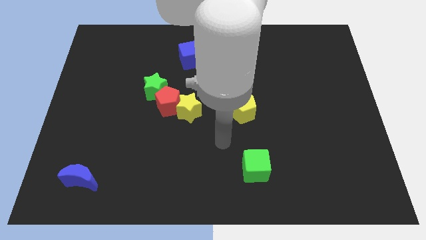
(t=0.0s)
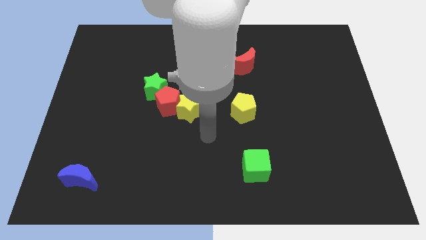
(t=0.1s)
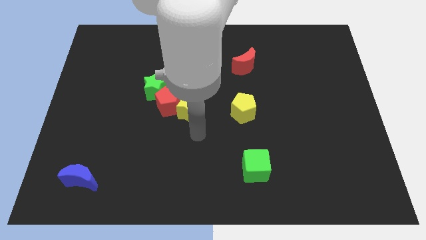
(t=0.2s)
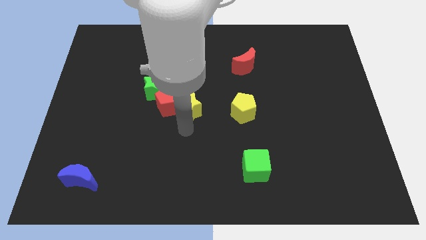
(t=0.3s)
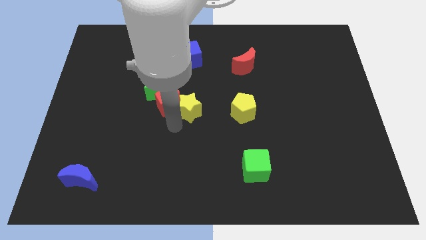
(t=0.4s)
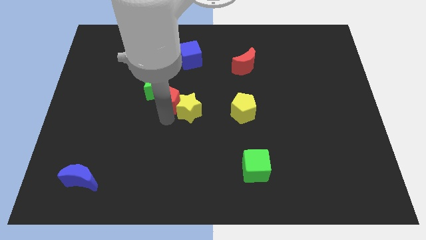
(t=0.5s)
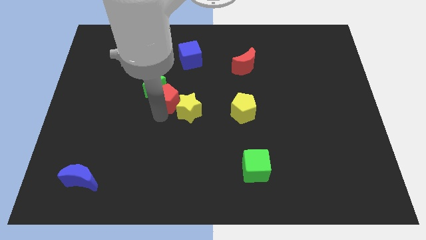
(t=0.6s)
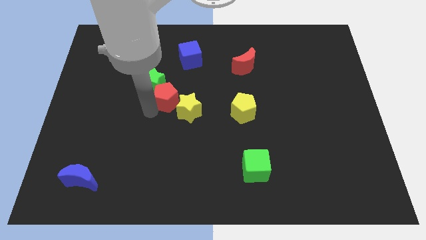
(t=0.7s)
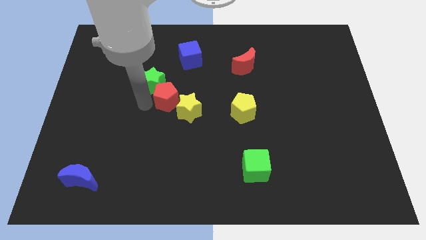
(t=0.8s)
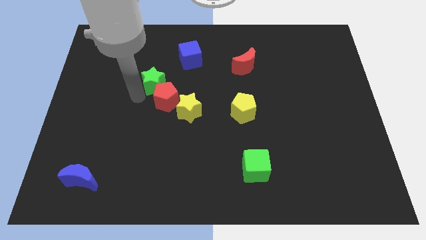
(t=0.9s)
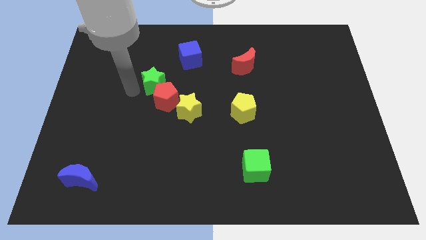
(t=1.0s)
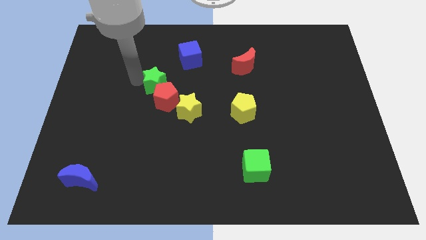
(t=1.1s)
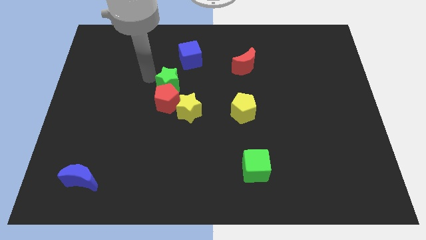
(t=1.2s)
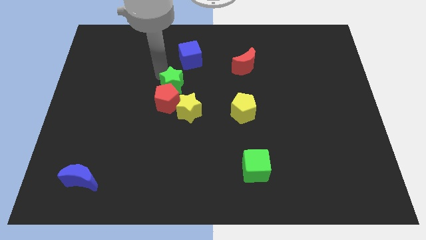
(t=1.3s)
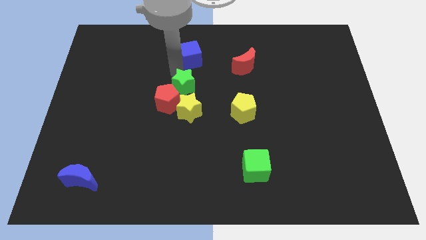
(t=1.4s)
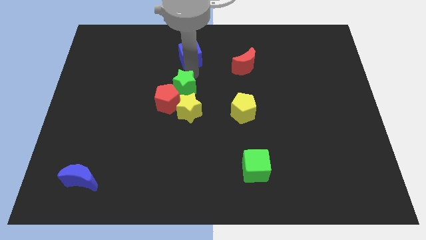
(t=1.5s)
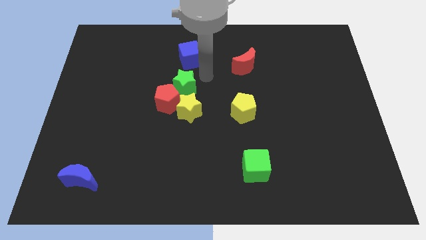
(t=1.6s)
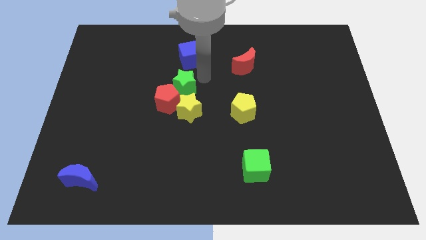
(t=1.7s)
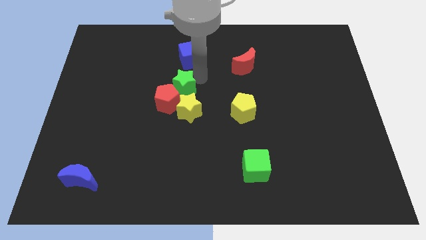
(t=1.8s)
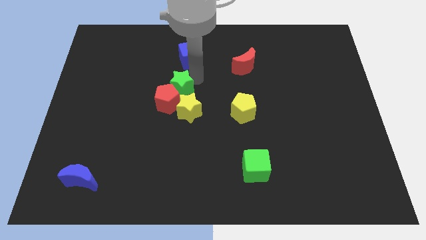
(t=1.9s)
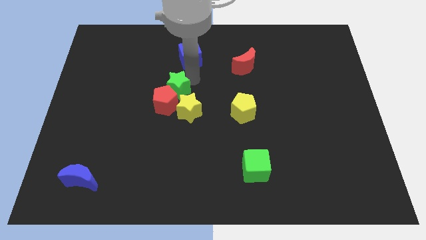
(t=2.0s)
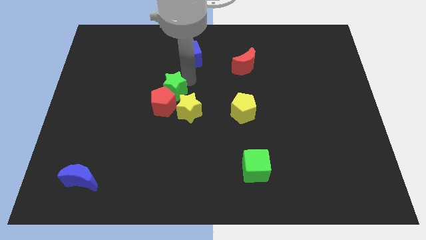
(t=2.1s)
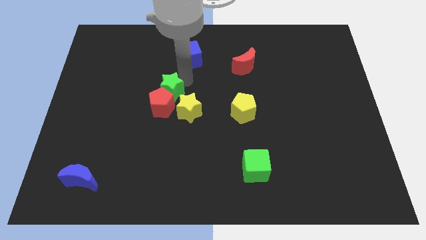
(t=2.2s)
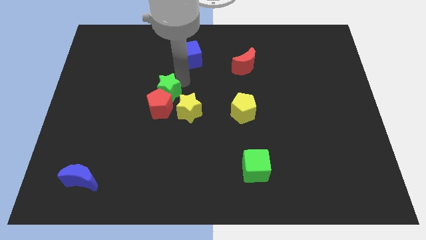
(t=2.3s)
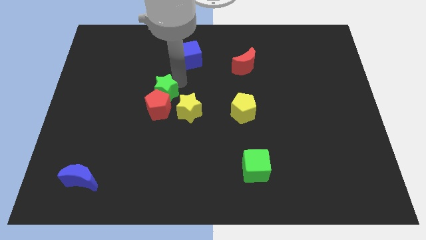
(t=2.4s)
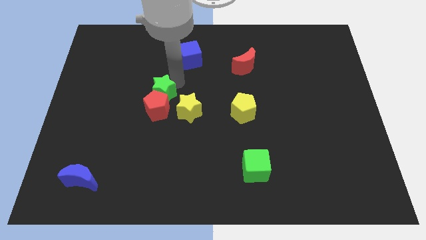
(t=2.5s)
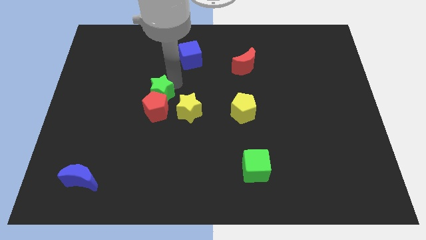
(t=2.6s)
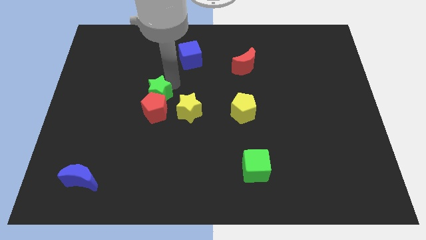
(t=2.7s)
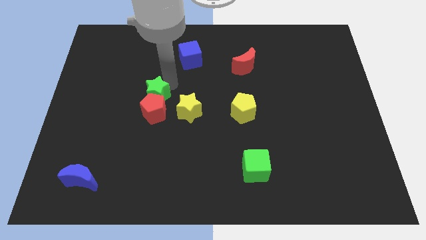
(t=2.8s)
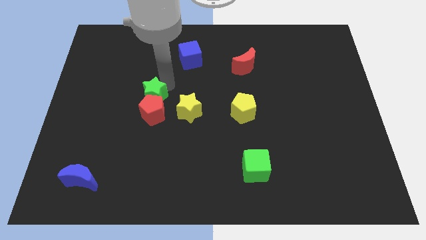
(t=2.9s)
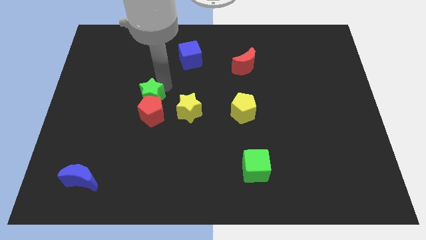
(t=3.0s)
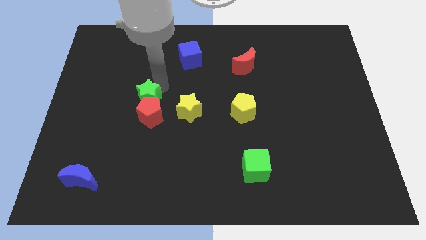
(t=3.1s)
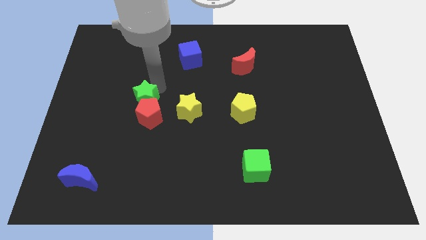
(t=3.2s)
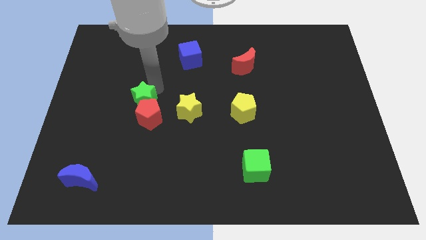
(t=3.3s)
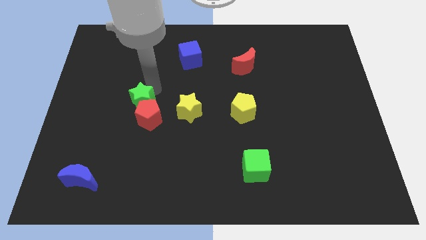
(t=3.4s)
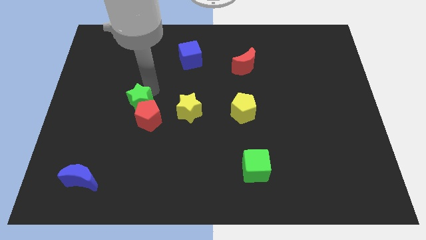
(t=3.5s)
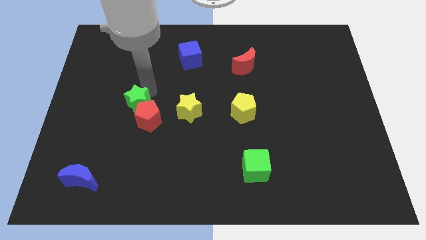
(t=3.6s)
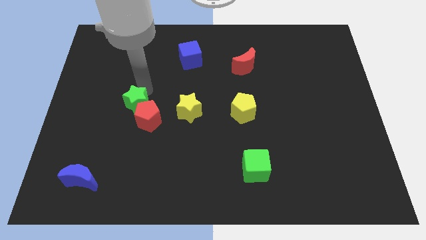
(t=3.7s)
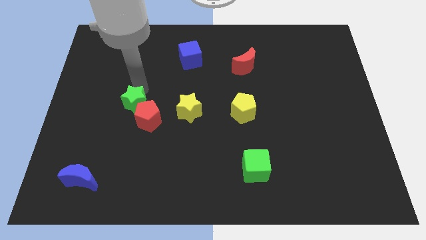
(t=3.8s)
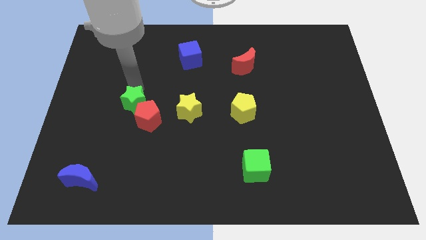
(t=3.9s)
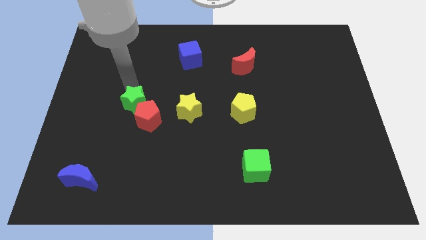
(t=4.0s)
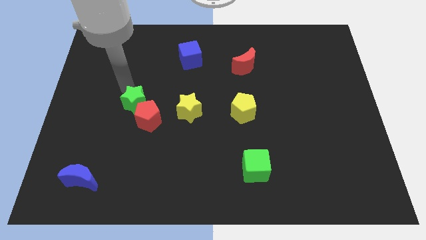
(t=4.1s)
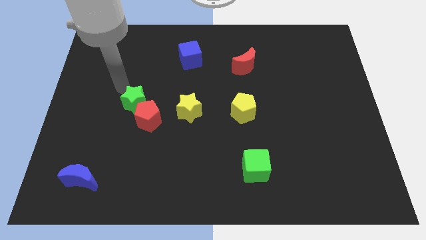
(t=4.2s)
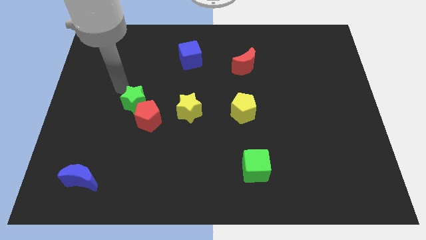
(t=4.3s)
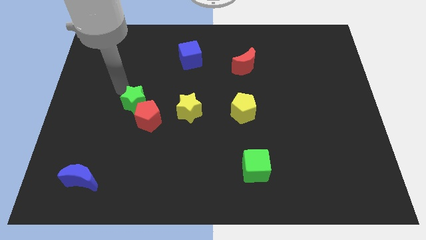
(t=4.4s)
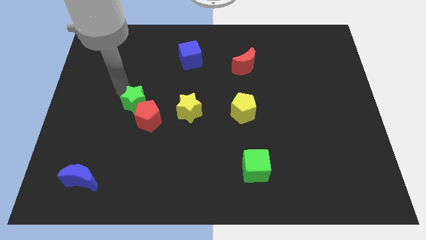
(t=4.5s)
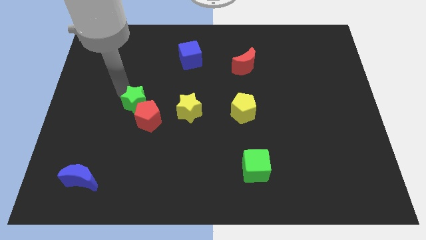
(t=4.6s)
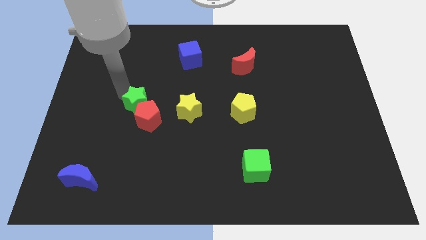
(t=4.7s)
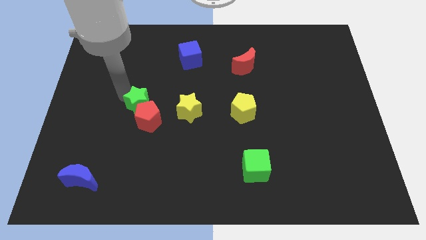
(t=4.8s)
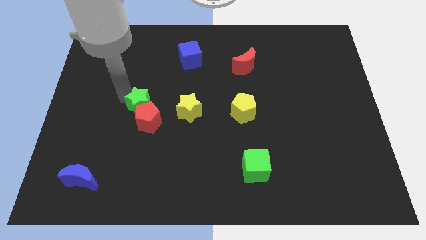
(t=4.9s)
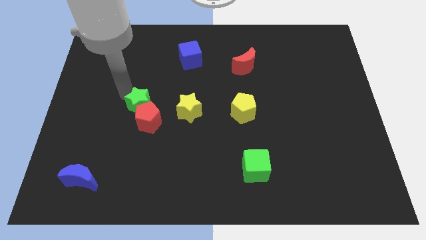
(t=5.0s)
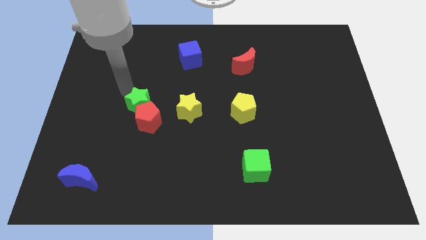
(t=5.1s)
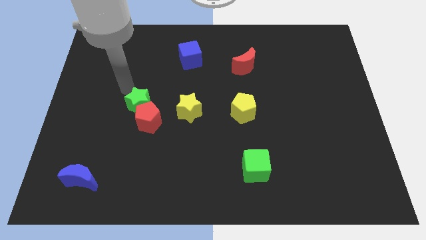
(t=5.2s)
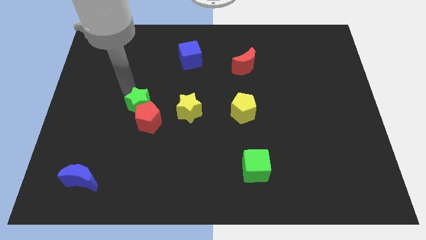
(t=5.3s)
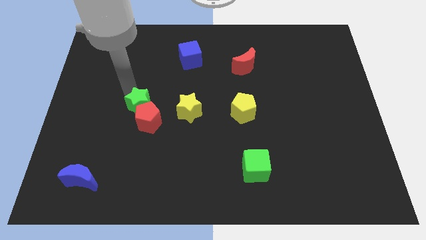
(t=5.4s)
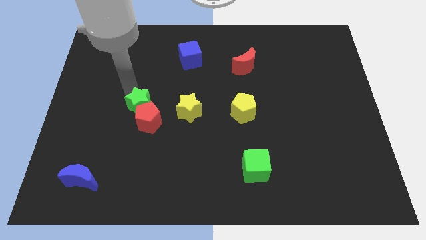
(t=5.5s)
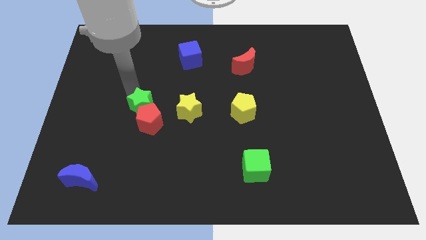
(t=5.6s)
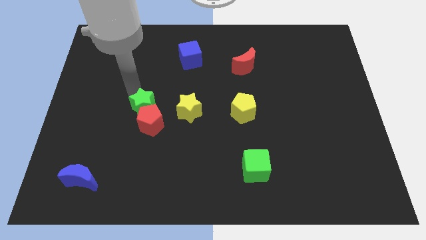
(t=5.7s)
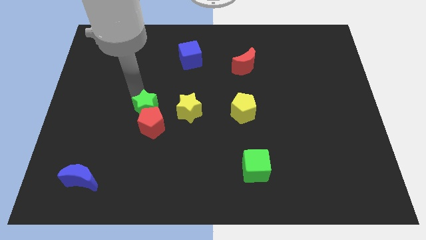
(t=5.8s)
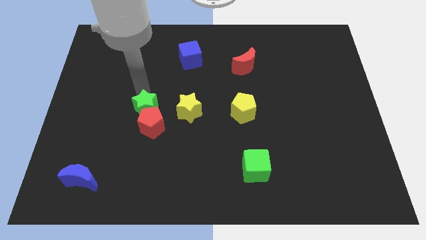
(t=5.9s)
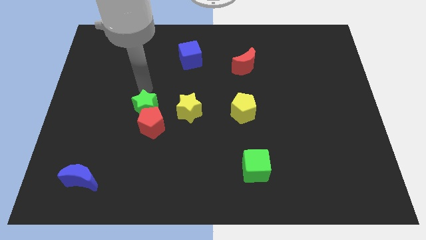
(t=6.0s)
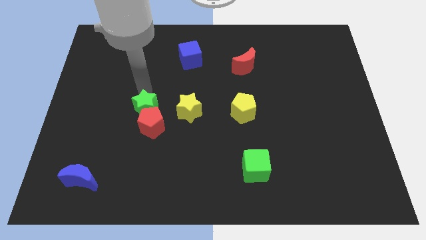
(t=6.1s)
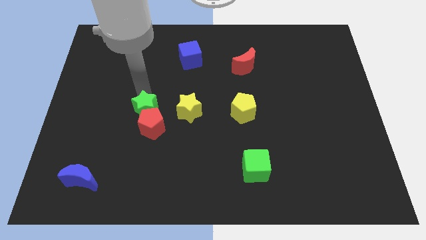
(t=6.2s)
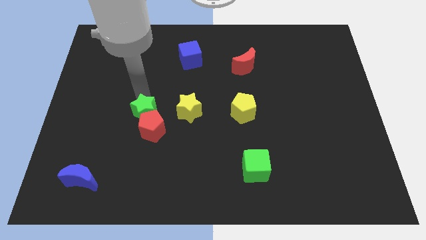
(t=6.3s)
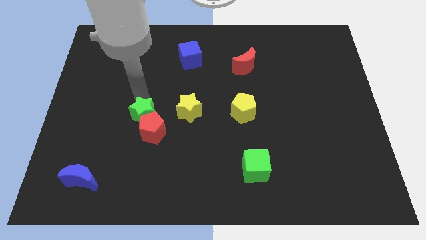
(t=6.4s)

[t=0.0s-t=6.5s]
move the green star down a little bit

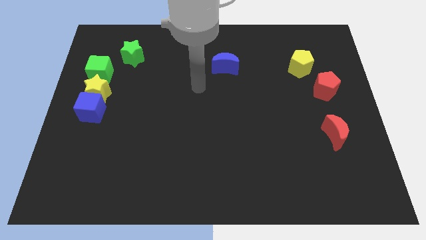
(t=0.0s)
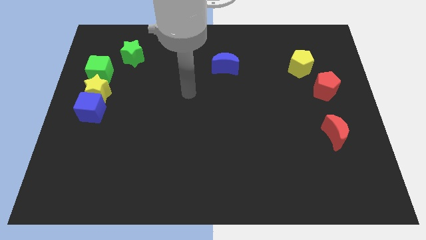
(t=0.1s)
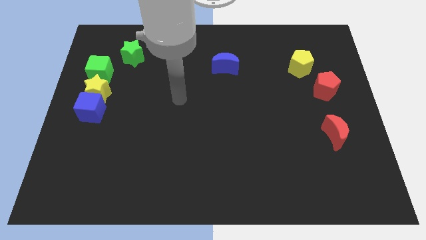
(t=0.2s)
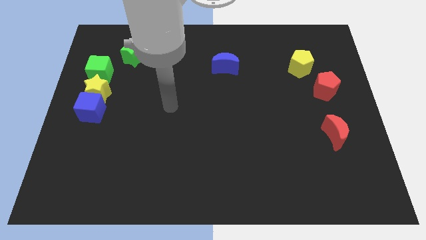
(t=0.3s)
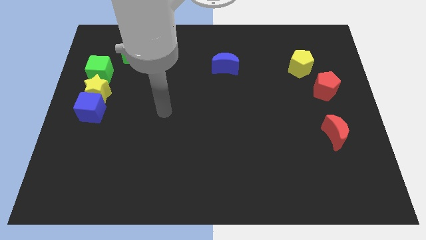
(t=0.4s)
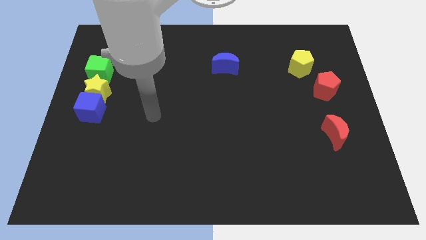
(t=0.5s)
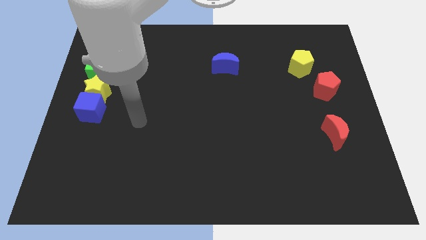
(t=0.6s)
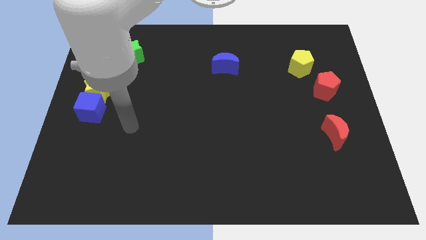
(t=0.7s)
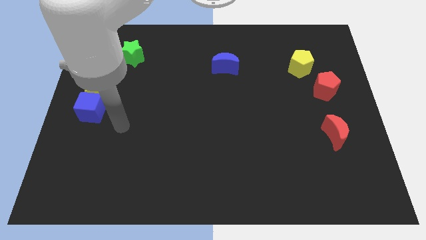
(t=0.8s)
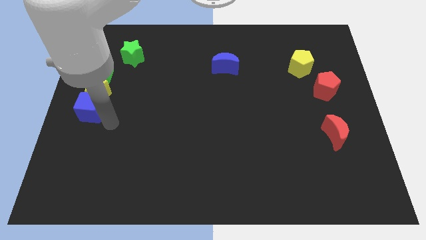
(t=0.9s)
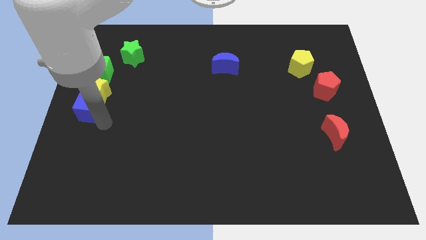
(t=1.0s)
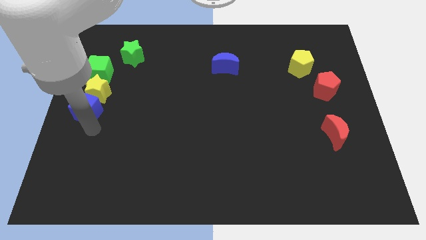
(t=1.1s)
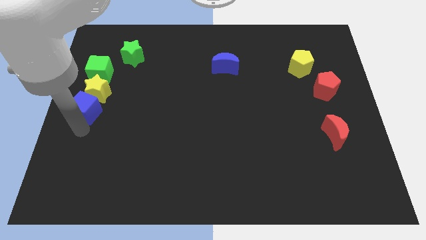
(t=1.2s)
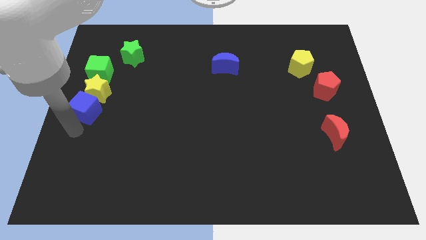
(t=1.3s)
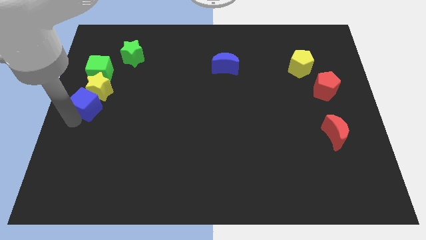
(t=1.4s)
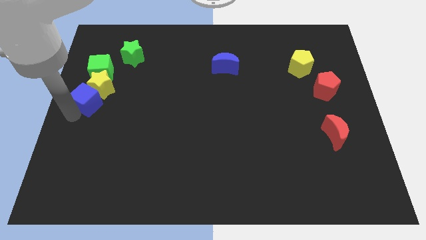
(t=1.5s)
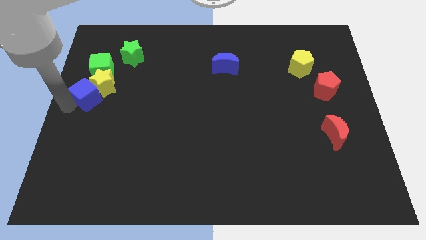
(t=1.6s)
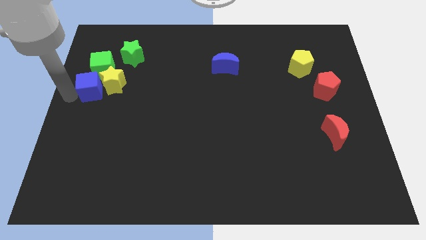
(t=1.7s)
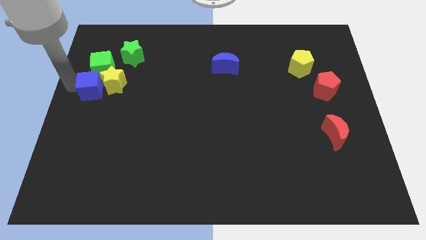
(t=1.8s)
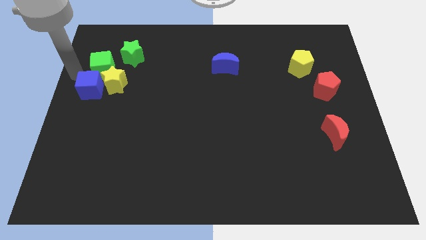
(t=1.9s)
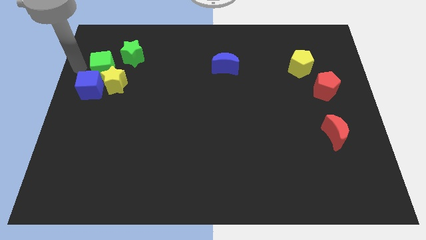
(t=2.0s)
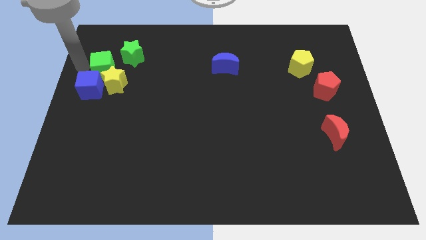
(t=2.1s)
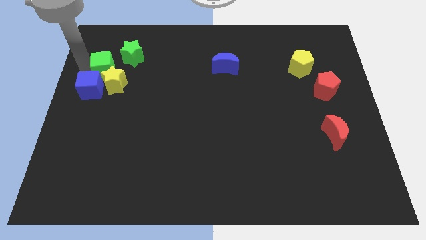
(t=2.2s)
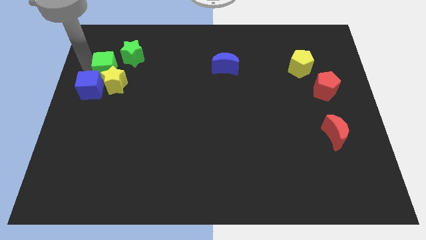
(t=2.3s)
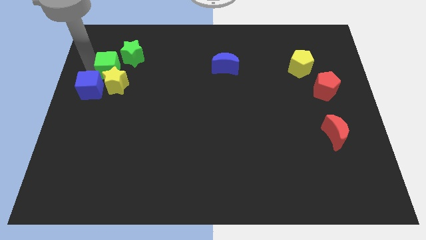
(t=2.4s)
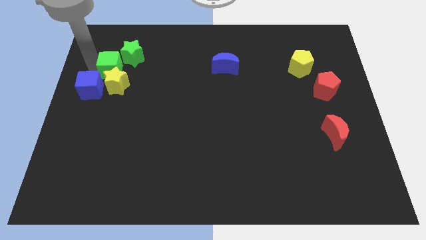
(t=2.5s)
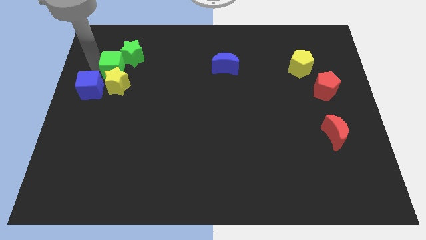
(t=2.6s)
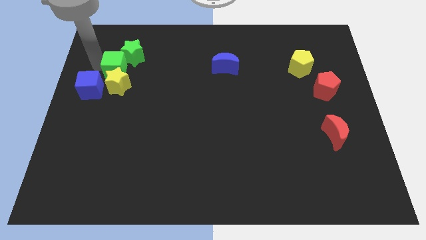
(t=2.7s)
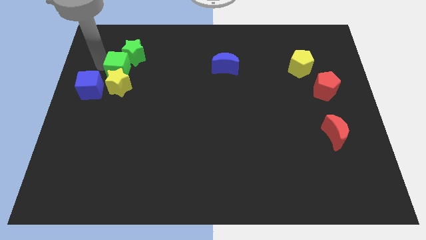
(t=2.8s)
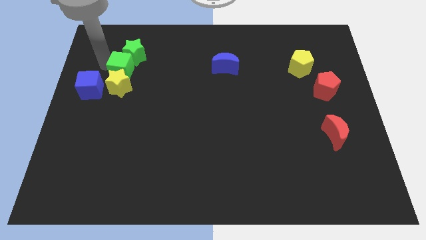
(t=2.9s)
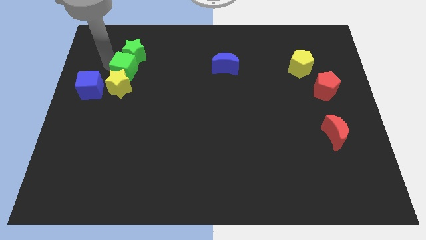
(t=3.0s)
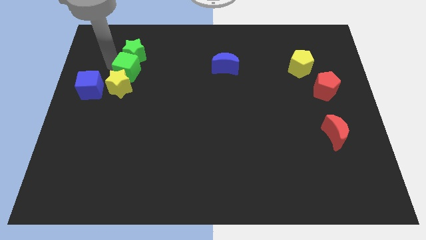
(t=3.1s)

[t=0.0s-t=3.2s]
move the green cube to the right a bit
